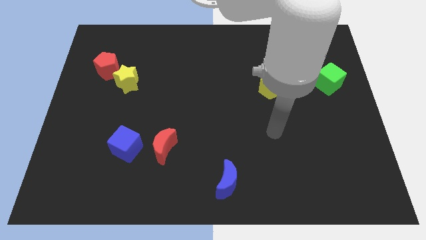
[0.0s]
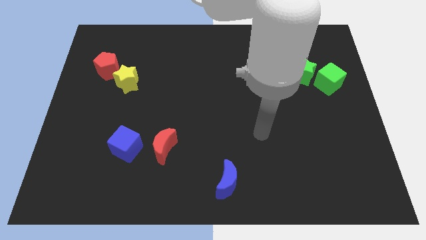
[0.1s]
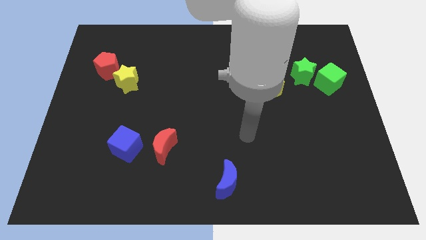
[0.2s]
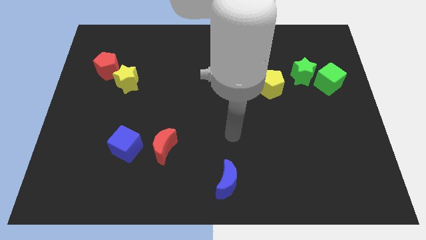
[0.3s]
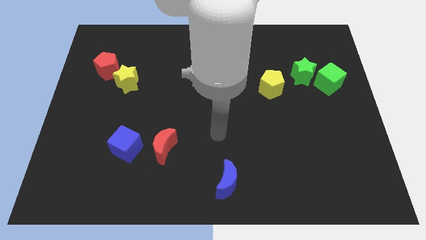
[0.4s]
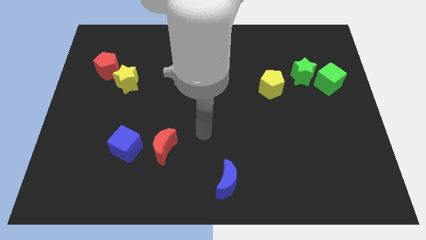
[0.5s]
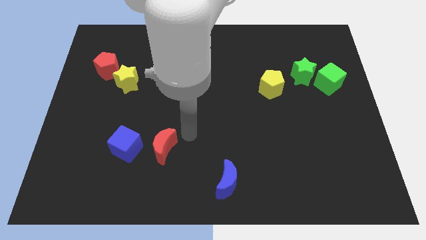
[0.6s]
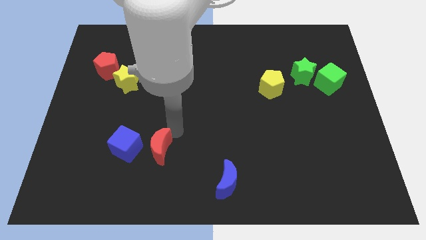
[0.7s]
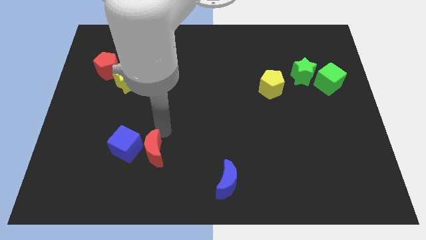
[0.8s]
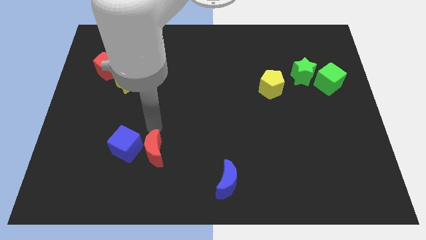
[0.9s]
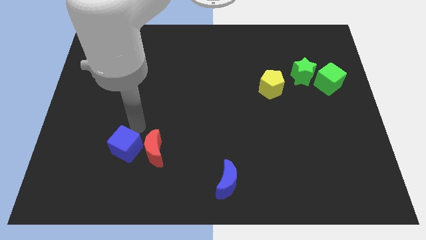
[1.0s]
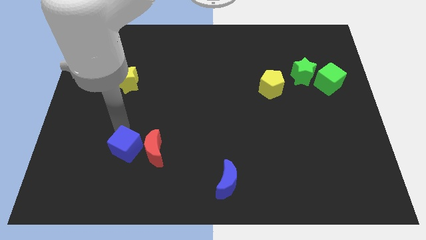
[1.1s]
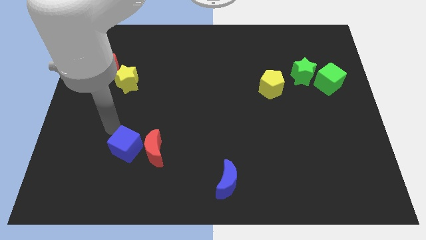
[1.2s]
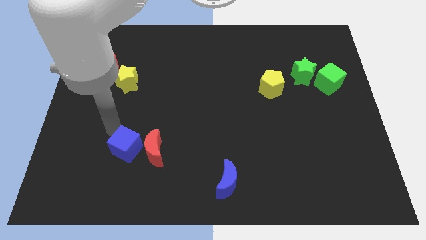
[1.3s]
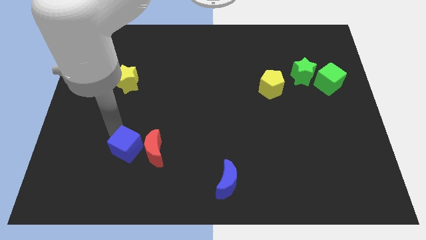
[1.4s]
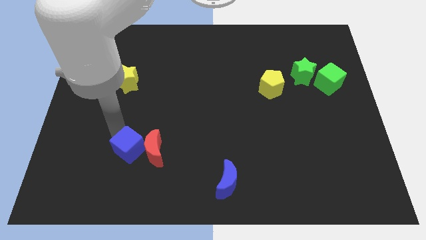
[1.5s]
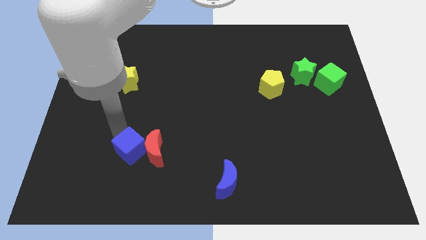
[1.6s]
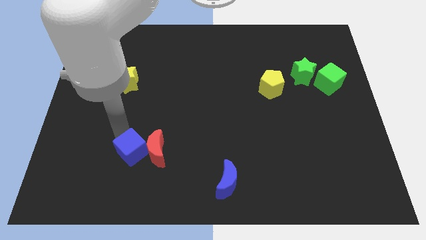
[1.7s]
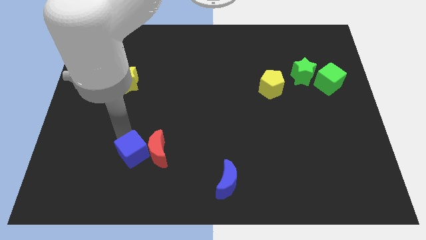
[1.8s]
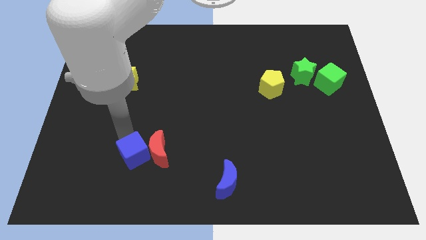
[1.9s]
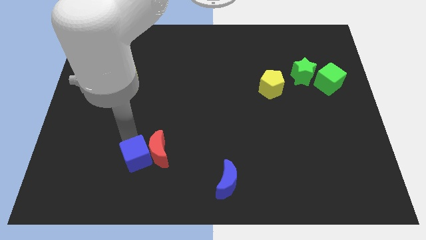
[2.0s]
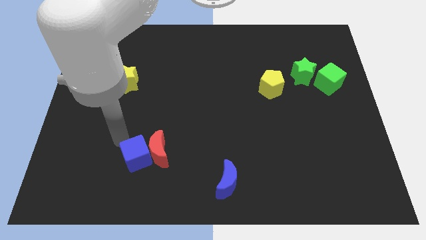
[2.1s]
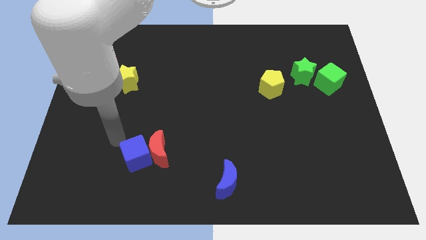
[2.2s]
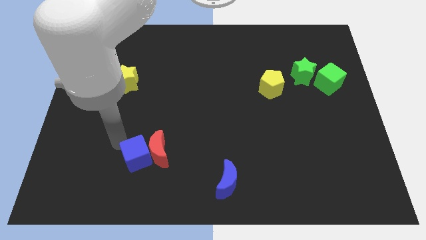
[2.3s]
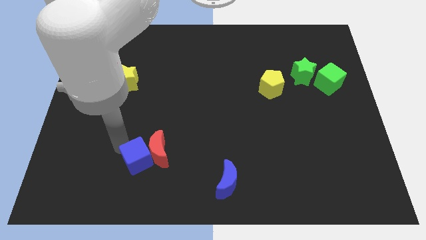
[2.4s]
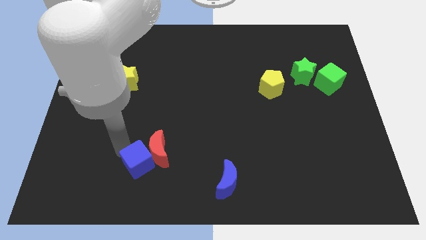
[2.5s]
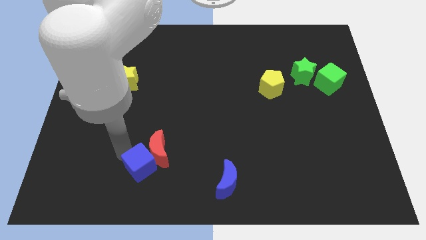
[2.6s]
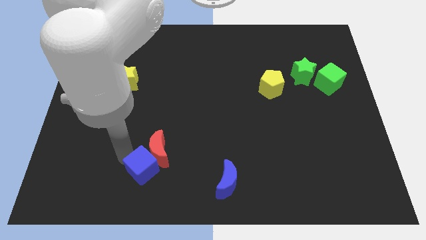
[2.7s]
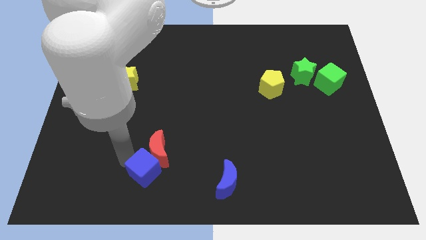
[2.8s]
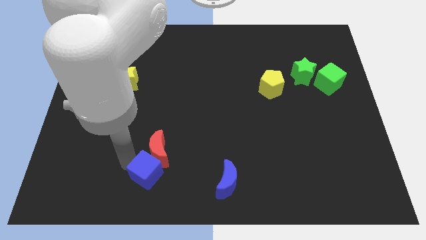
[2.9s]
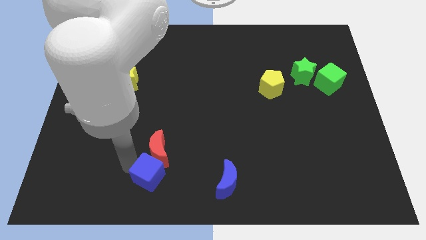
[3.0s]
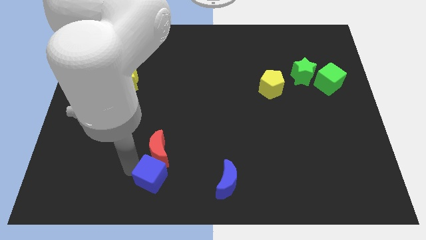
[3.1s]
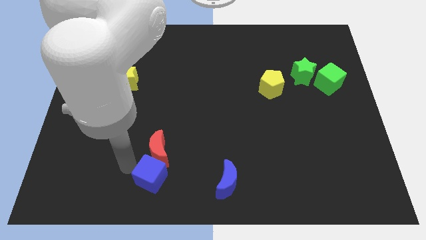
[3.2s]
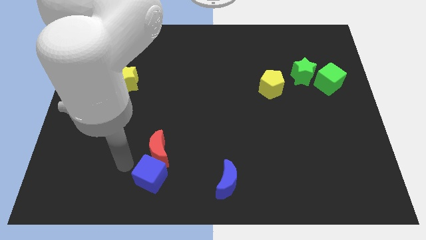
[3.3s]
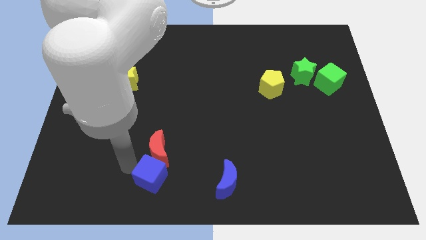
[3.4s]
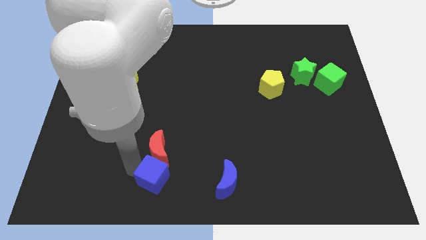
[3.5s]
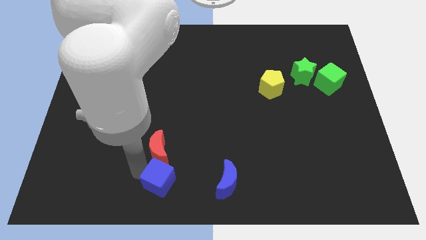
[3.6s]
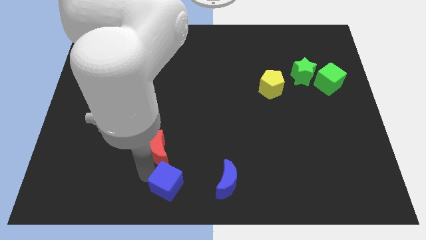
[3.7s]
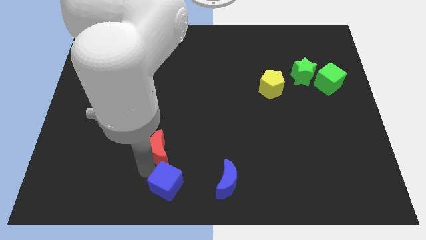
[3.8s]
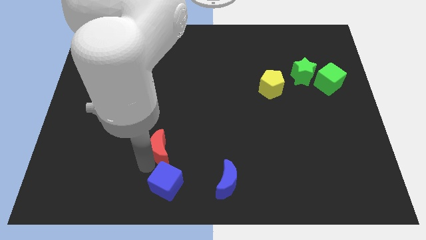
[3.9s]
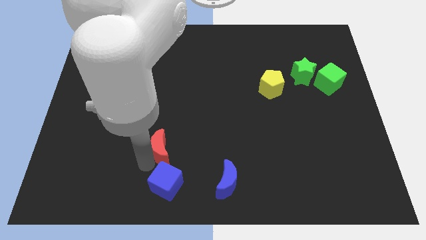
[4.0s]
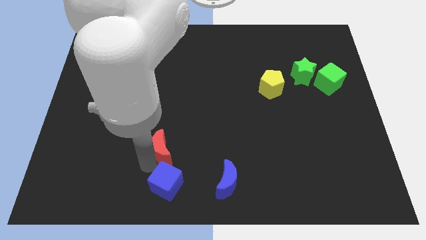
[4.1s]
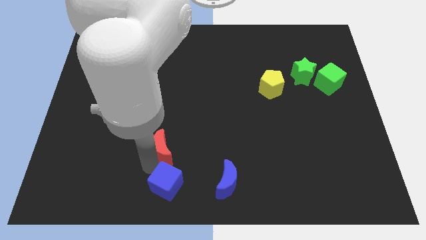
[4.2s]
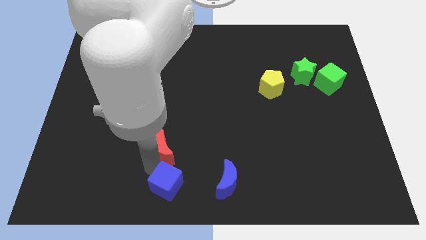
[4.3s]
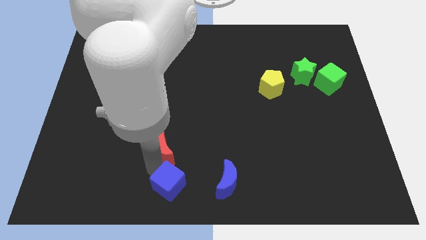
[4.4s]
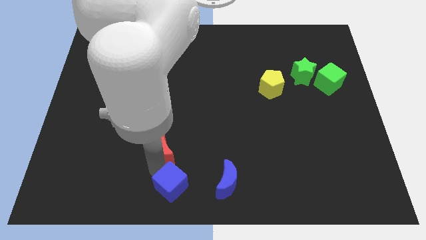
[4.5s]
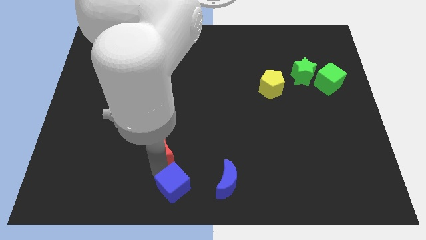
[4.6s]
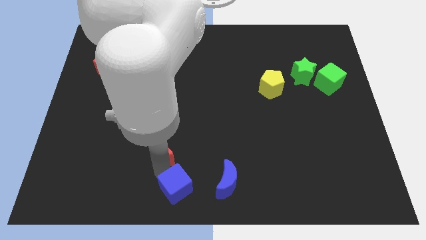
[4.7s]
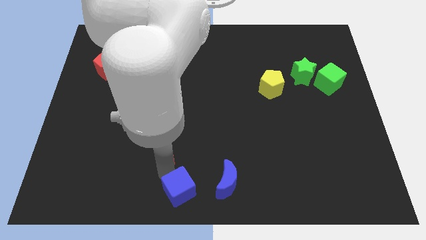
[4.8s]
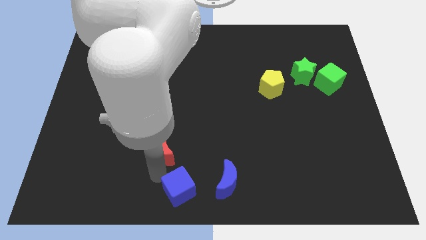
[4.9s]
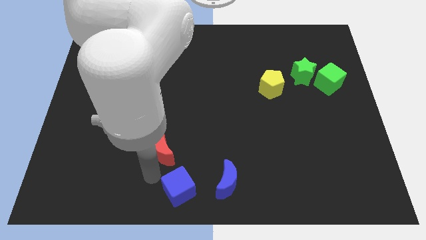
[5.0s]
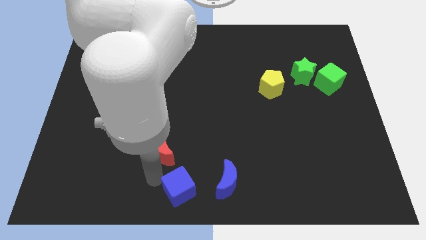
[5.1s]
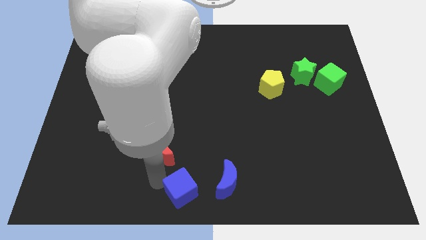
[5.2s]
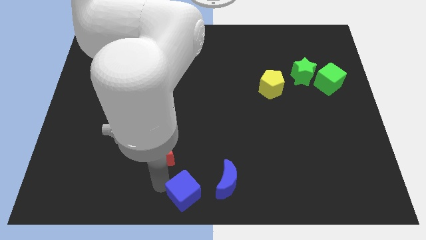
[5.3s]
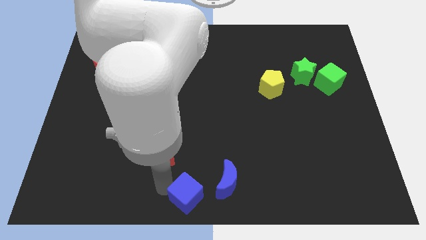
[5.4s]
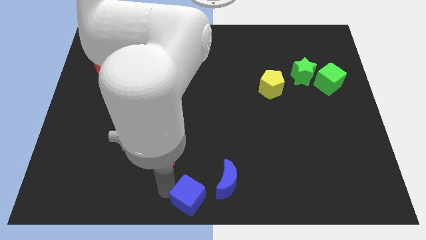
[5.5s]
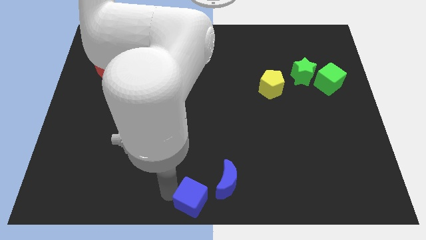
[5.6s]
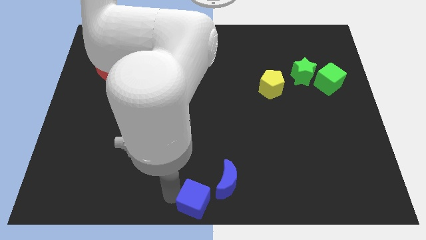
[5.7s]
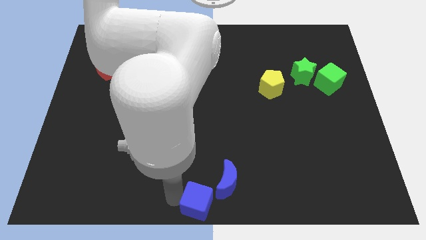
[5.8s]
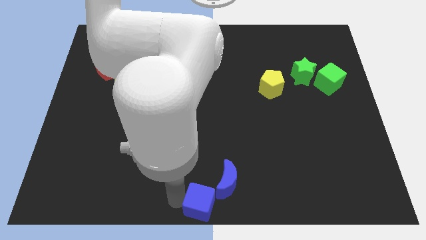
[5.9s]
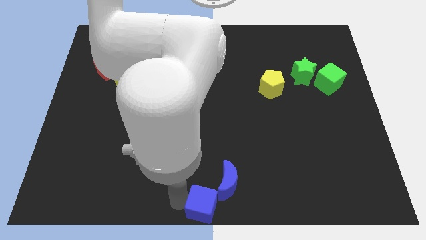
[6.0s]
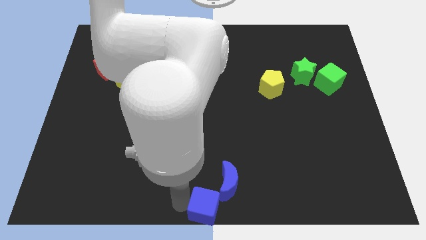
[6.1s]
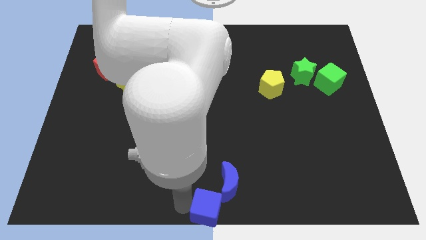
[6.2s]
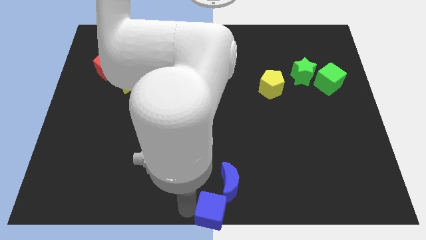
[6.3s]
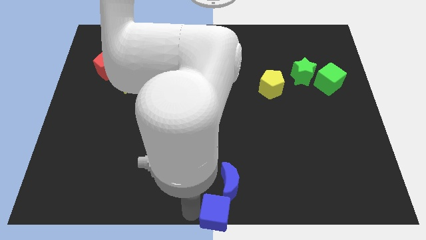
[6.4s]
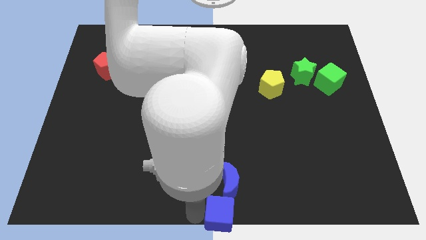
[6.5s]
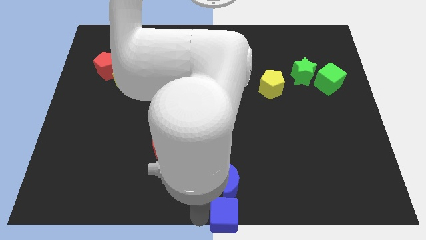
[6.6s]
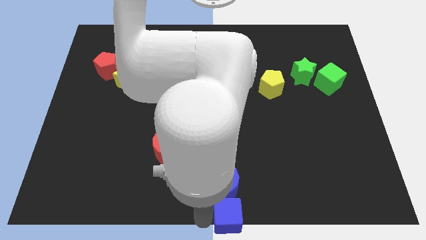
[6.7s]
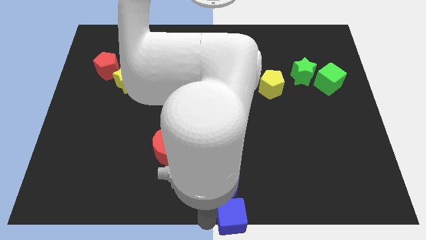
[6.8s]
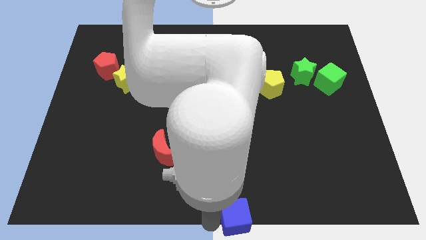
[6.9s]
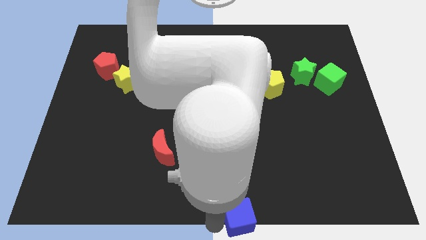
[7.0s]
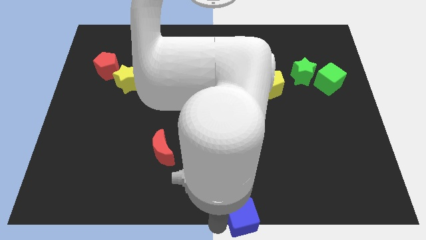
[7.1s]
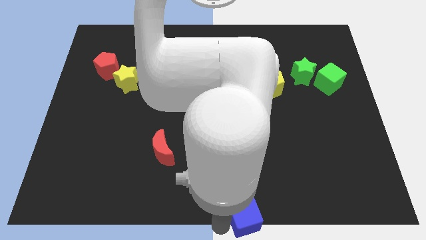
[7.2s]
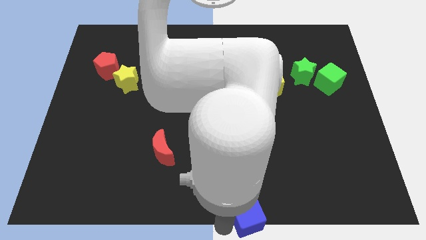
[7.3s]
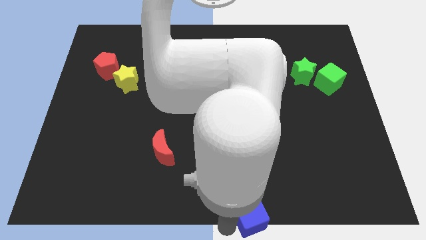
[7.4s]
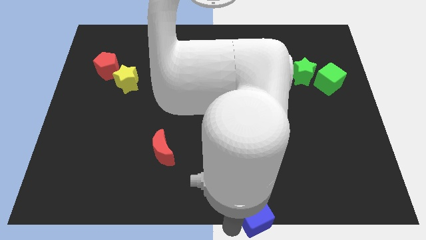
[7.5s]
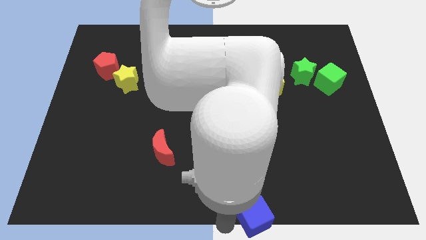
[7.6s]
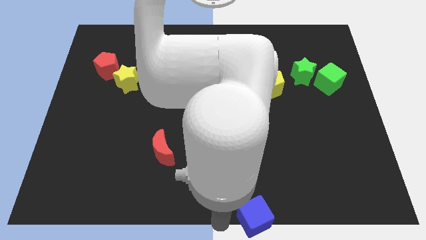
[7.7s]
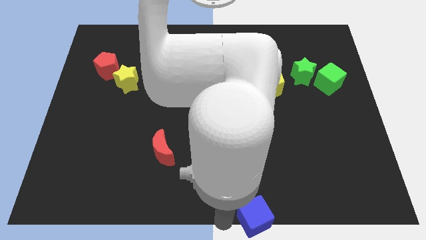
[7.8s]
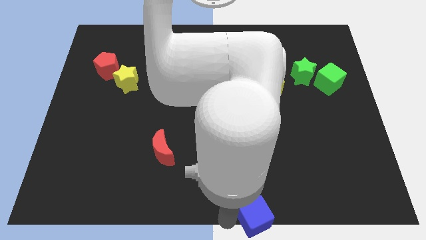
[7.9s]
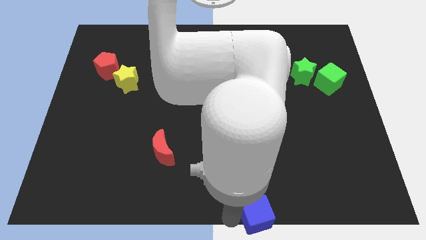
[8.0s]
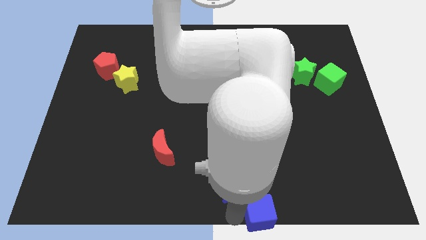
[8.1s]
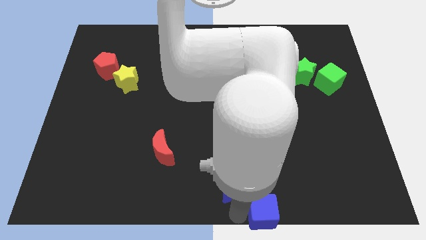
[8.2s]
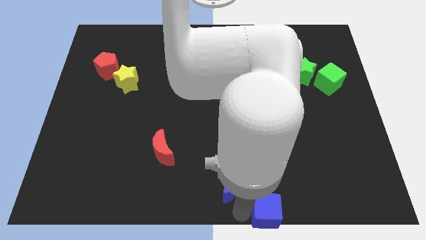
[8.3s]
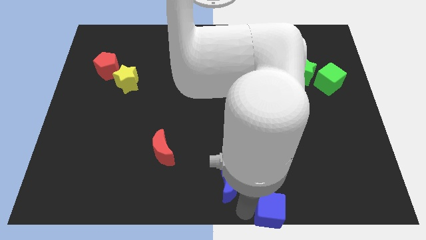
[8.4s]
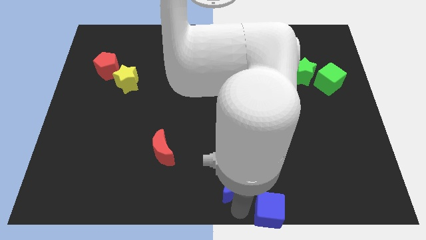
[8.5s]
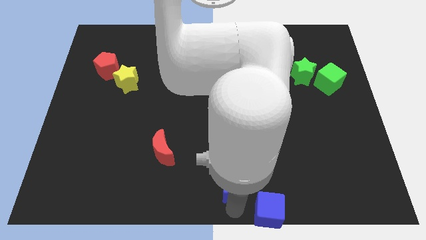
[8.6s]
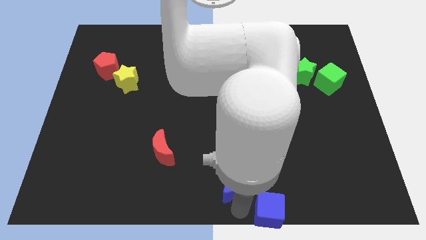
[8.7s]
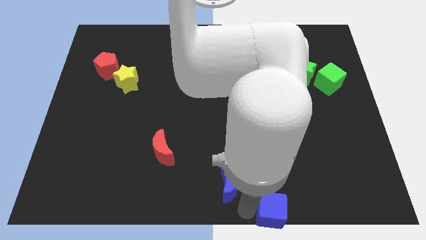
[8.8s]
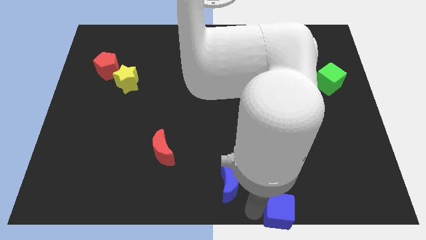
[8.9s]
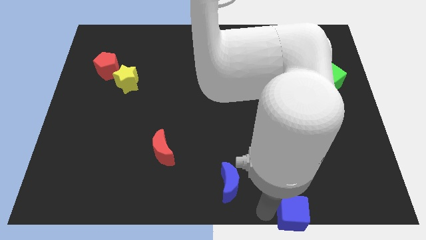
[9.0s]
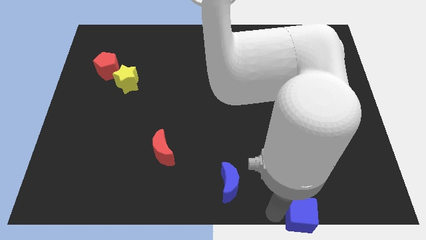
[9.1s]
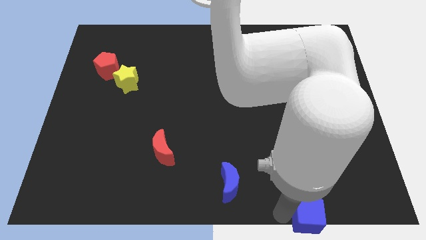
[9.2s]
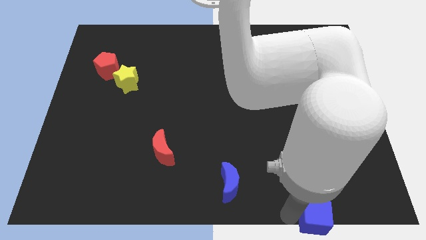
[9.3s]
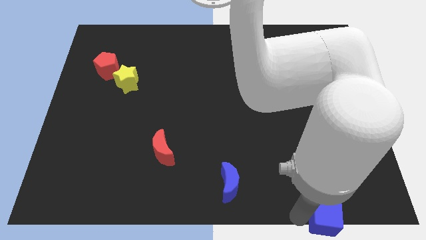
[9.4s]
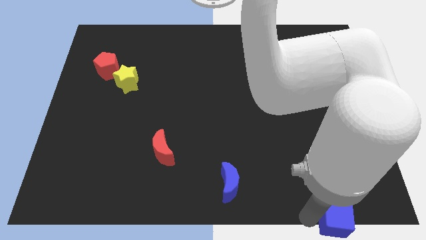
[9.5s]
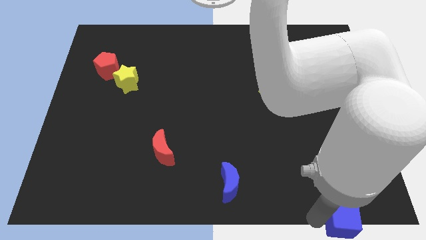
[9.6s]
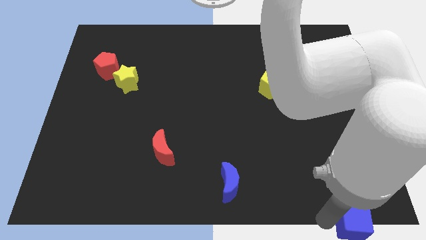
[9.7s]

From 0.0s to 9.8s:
move the blue cube to the bottom right of the board
